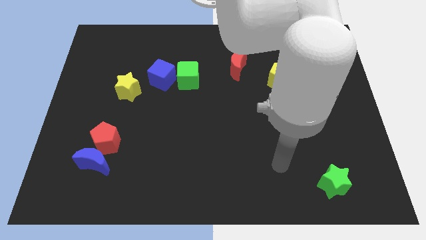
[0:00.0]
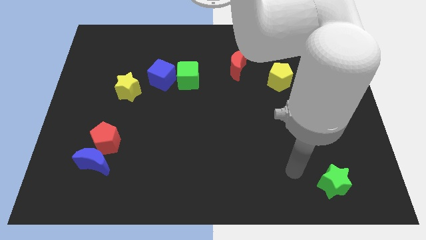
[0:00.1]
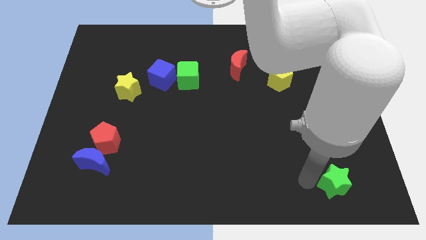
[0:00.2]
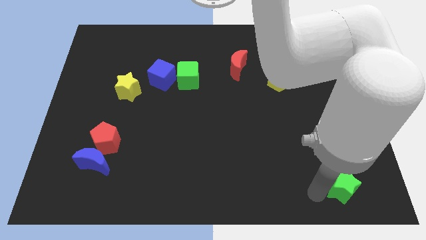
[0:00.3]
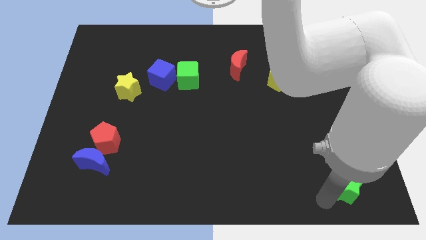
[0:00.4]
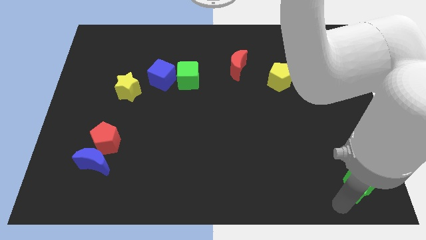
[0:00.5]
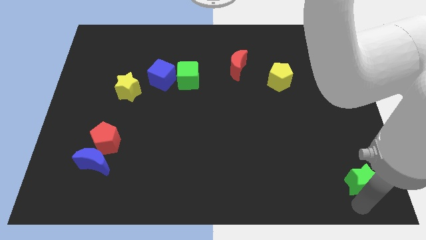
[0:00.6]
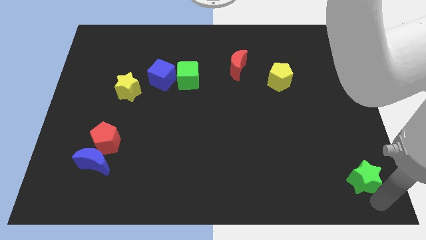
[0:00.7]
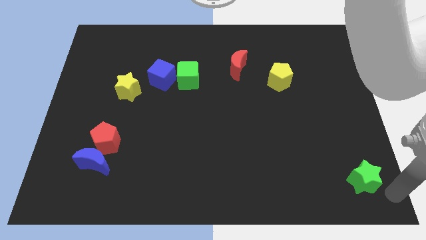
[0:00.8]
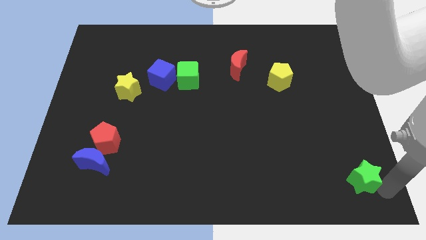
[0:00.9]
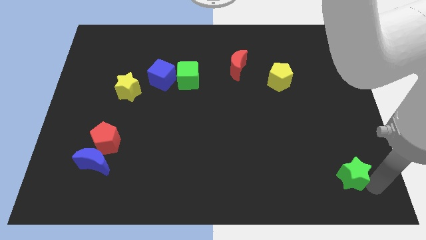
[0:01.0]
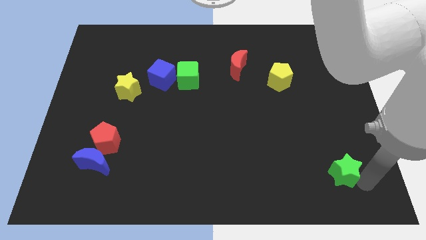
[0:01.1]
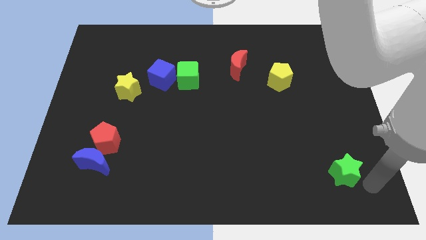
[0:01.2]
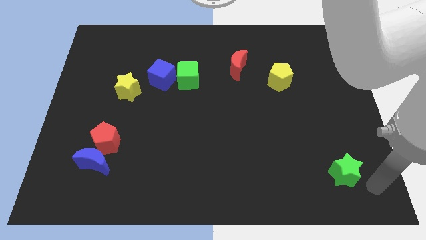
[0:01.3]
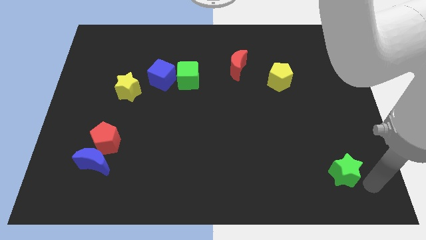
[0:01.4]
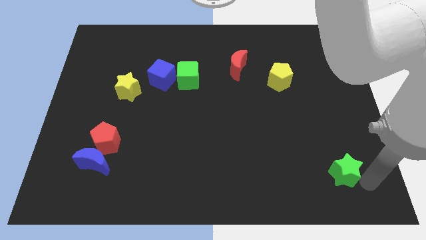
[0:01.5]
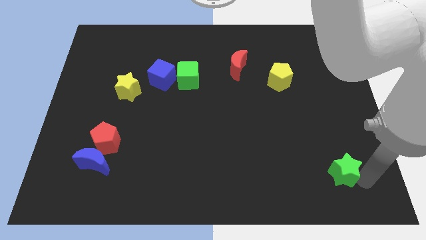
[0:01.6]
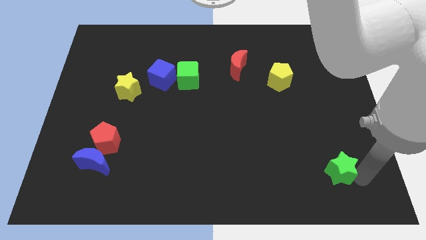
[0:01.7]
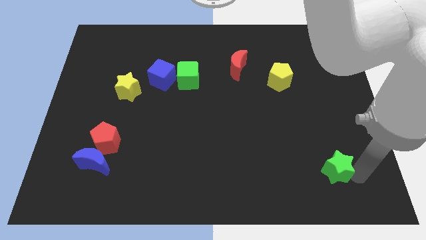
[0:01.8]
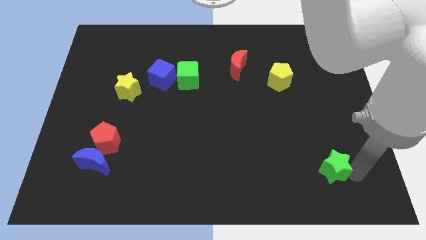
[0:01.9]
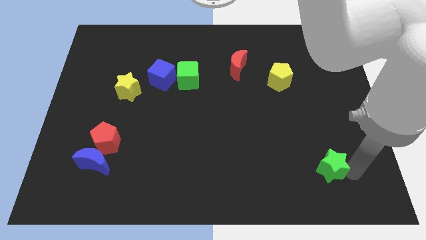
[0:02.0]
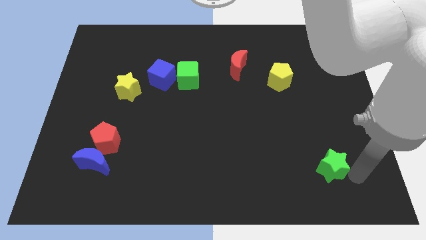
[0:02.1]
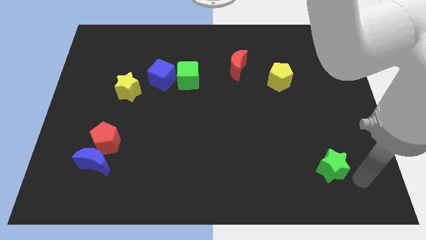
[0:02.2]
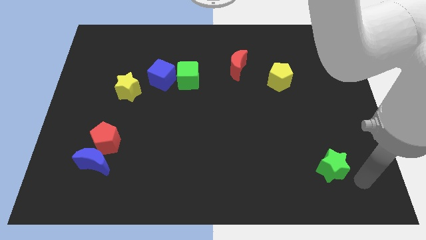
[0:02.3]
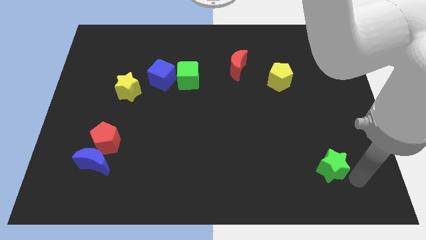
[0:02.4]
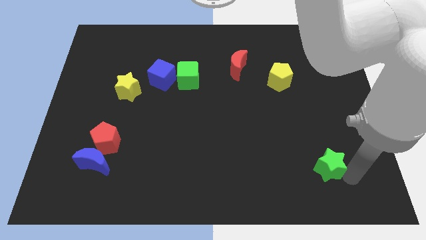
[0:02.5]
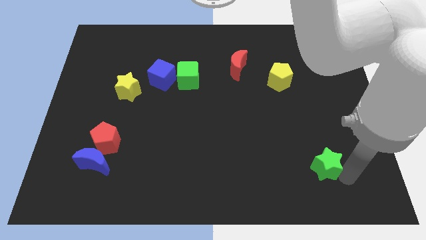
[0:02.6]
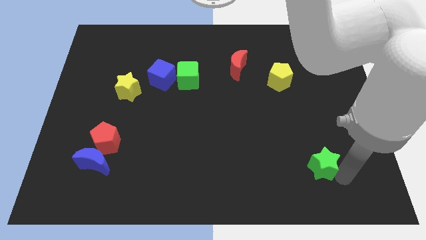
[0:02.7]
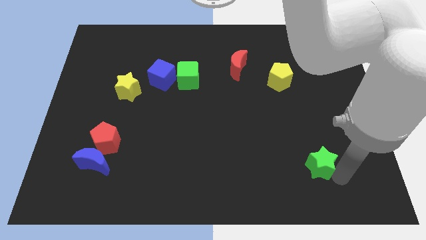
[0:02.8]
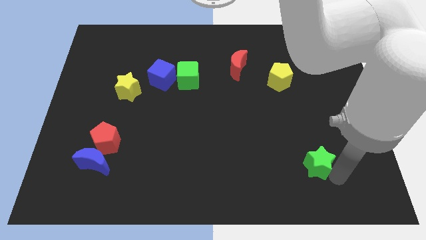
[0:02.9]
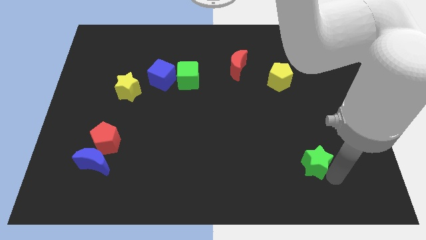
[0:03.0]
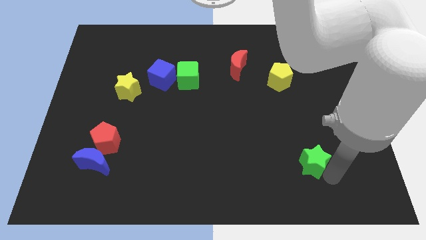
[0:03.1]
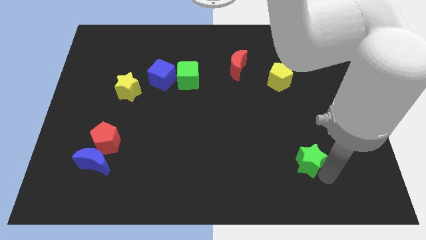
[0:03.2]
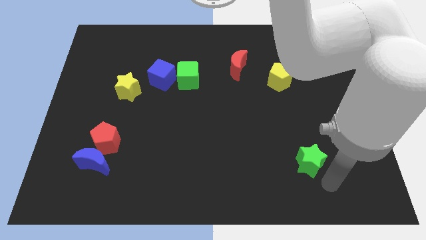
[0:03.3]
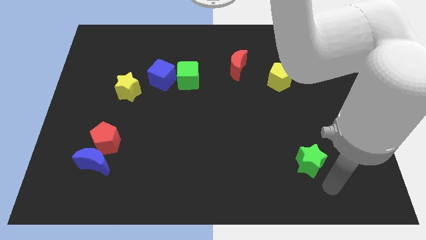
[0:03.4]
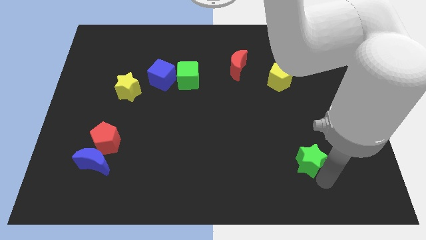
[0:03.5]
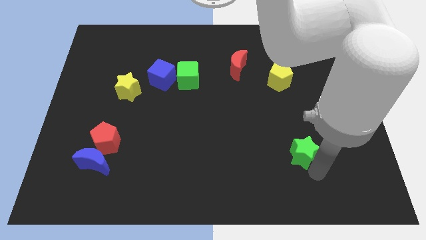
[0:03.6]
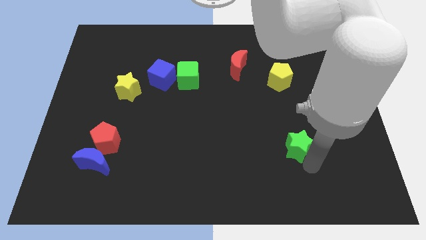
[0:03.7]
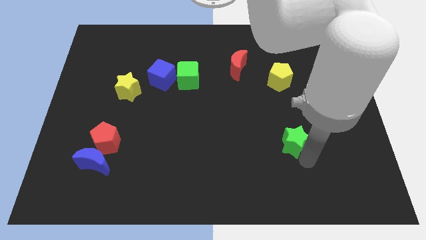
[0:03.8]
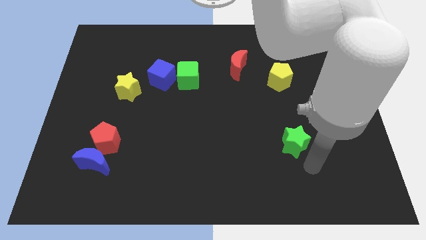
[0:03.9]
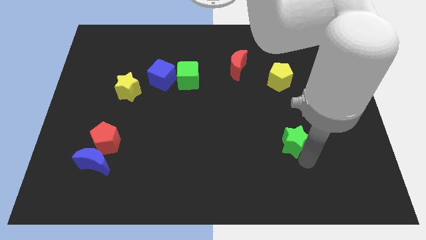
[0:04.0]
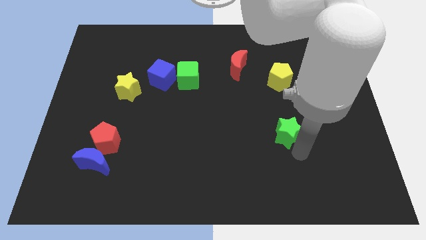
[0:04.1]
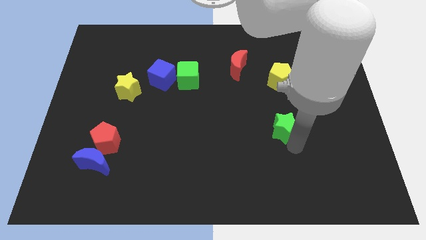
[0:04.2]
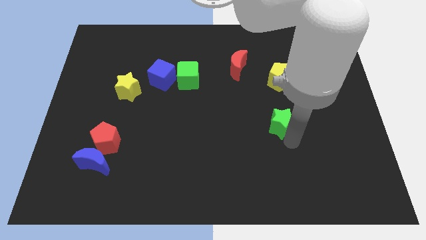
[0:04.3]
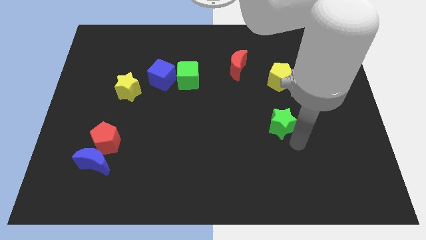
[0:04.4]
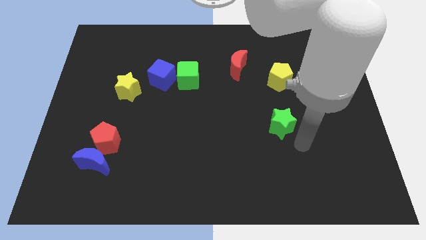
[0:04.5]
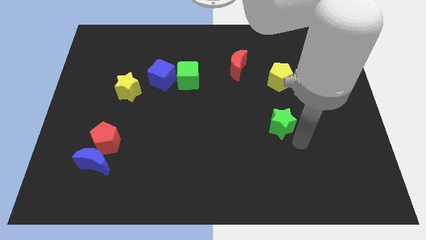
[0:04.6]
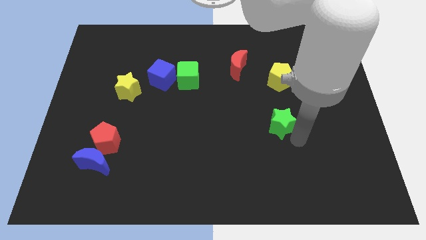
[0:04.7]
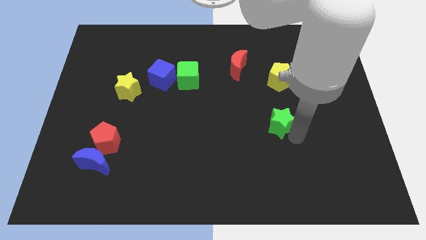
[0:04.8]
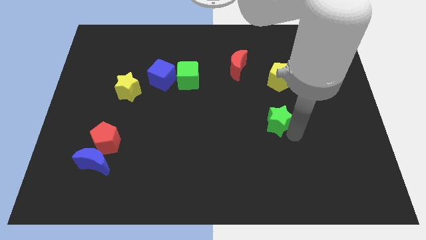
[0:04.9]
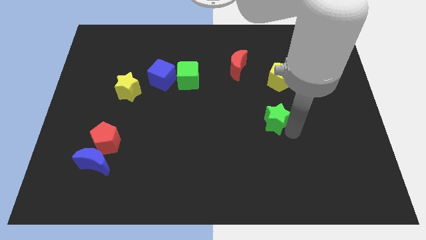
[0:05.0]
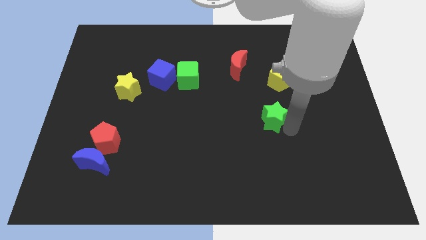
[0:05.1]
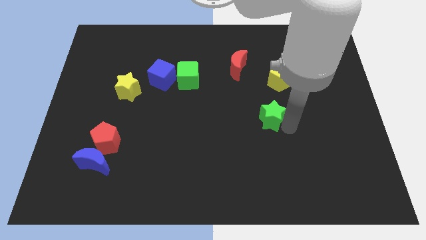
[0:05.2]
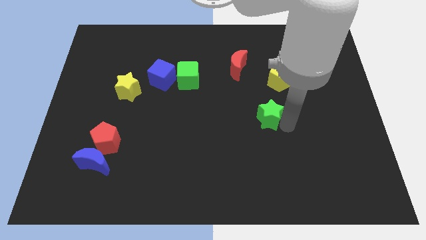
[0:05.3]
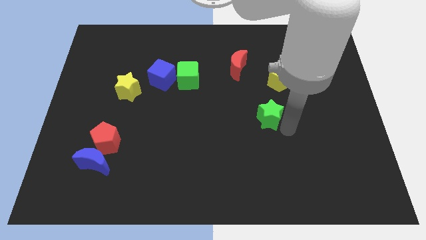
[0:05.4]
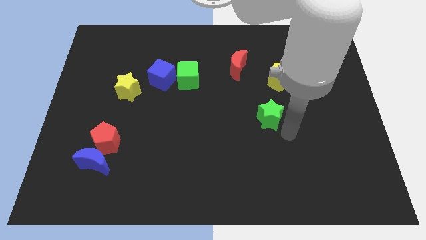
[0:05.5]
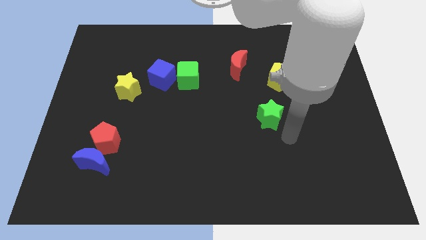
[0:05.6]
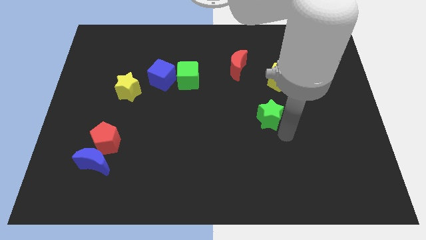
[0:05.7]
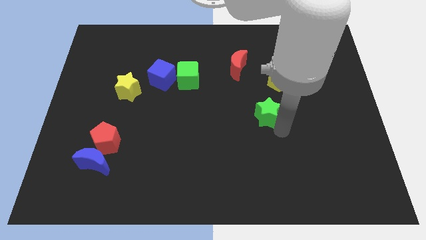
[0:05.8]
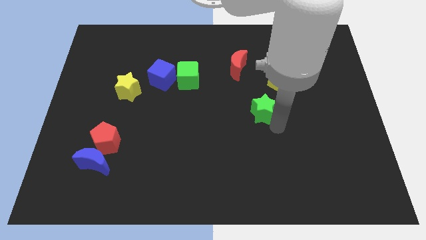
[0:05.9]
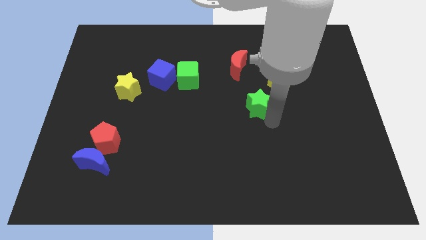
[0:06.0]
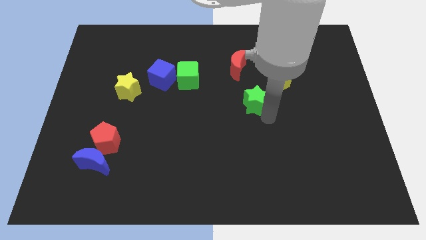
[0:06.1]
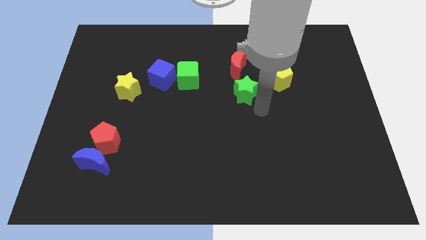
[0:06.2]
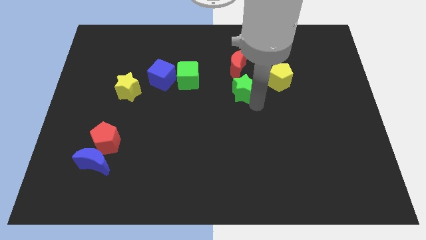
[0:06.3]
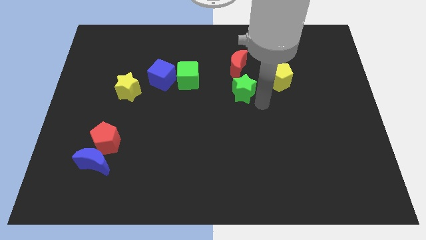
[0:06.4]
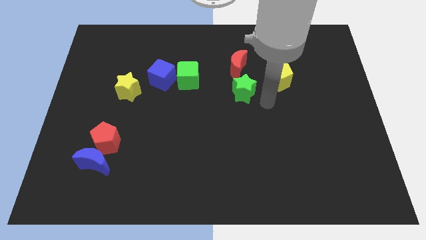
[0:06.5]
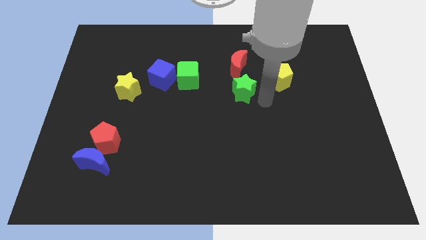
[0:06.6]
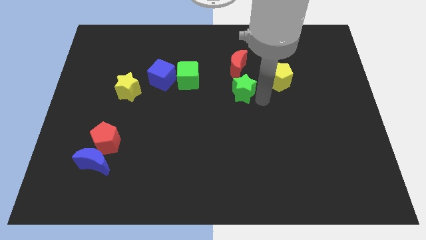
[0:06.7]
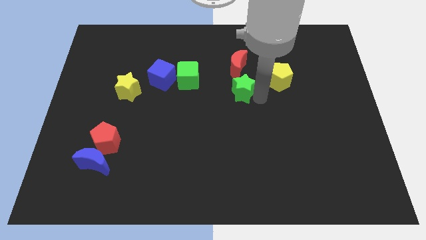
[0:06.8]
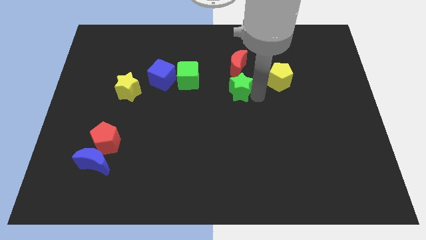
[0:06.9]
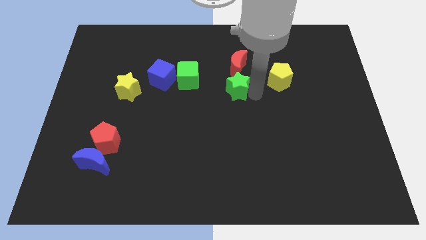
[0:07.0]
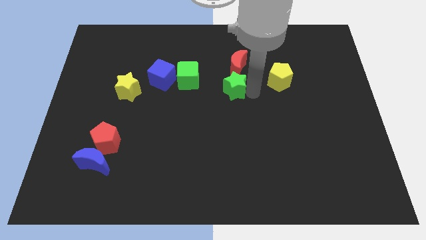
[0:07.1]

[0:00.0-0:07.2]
push the green star diagonally down and to the left of the red moon

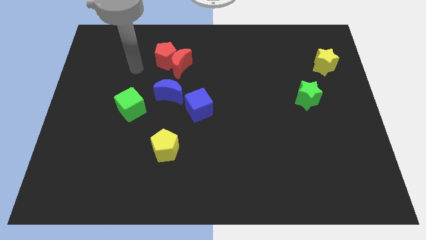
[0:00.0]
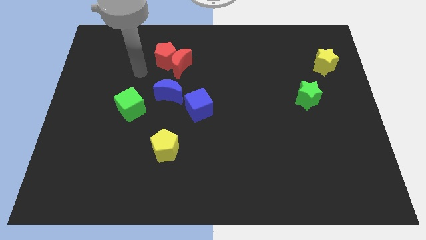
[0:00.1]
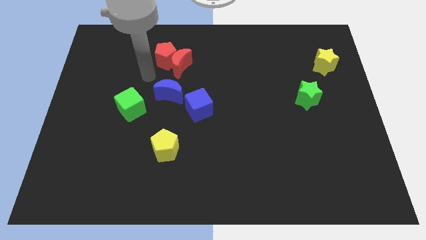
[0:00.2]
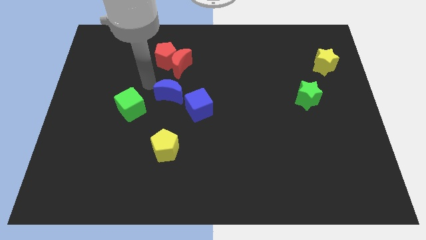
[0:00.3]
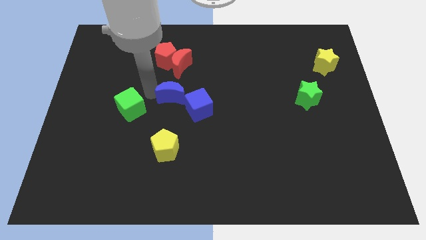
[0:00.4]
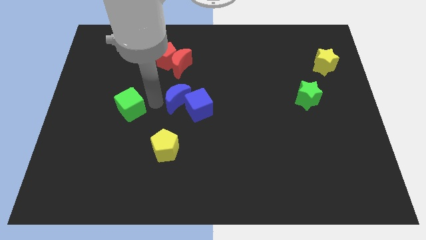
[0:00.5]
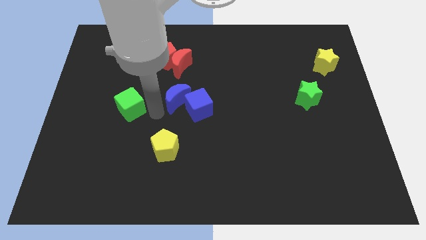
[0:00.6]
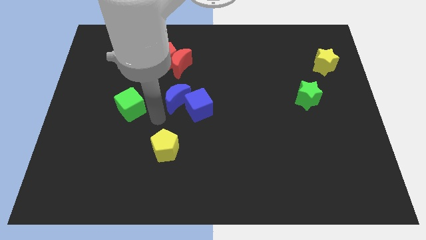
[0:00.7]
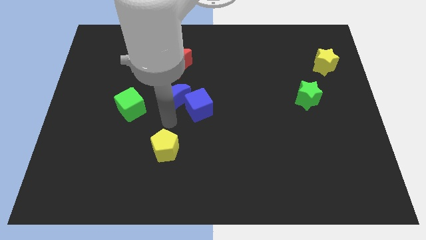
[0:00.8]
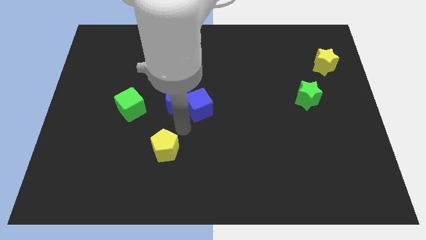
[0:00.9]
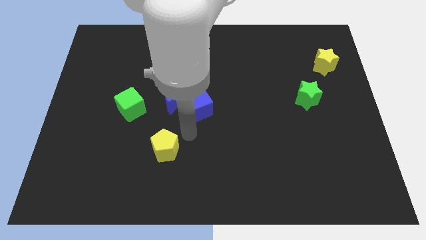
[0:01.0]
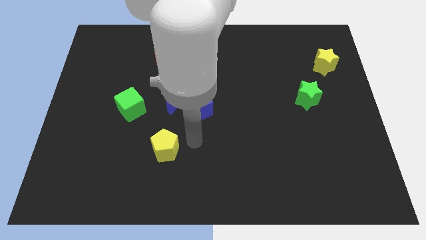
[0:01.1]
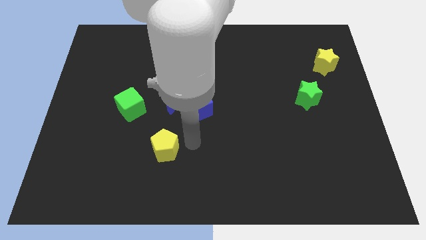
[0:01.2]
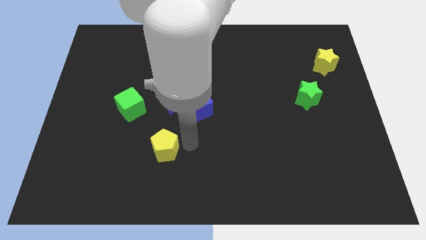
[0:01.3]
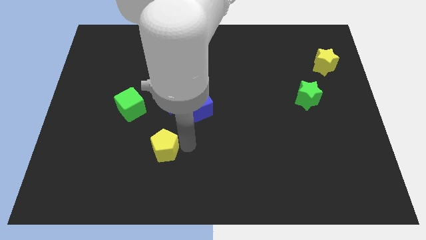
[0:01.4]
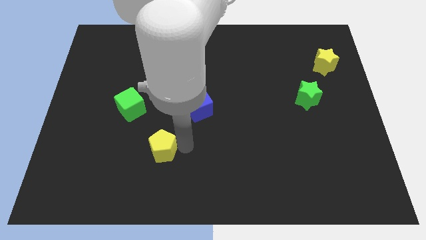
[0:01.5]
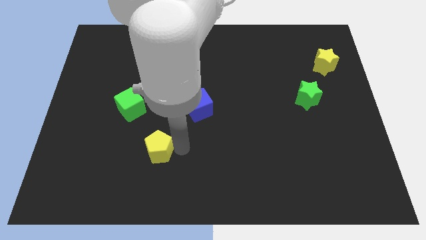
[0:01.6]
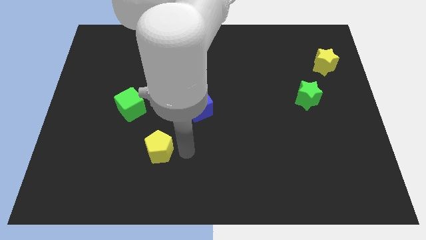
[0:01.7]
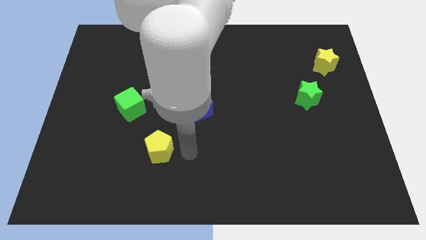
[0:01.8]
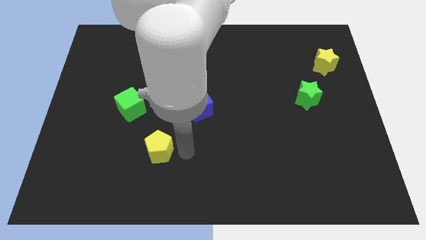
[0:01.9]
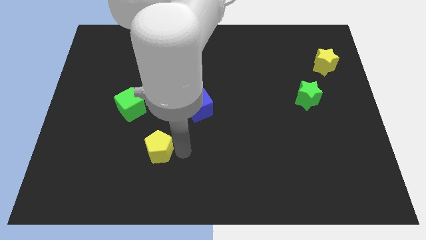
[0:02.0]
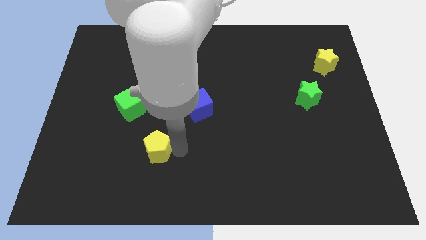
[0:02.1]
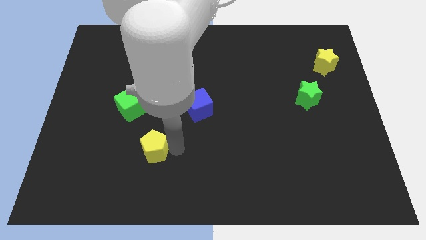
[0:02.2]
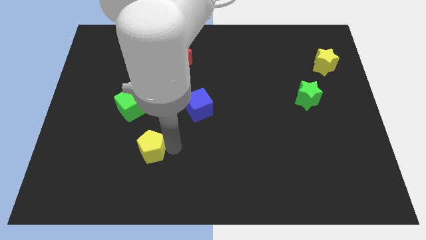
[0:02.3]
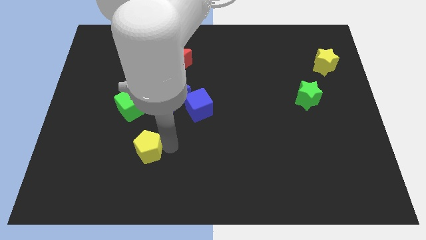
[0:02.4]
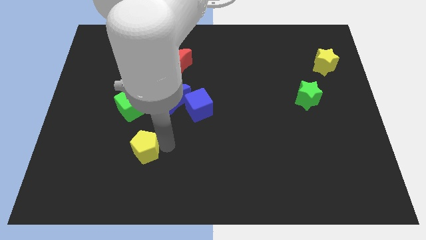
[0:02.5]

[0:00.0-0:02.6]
push the yellow pentagon below the green cube
